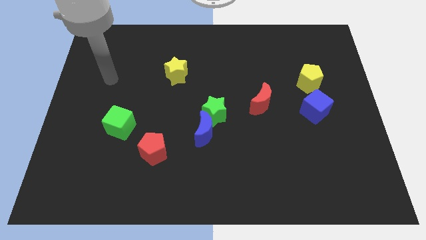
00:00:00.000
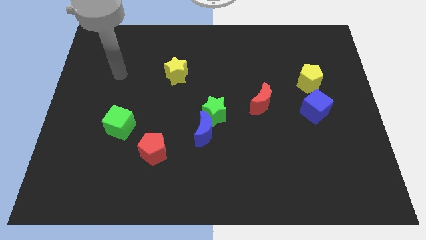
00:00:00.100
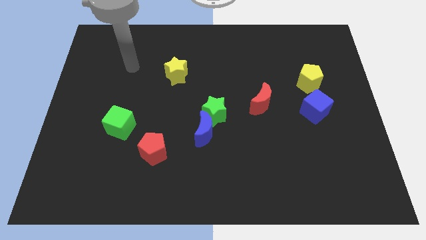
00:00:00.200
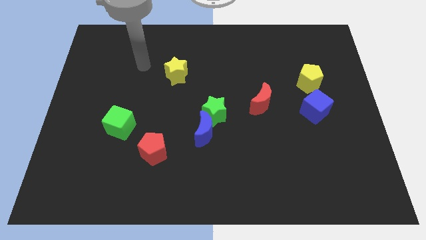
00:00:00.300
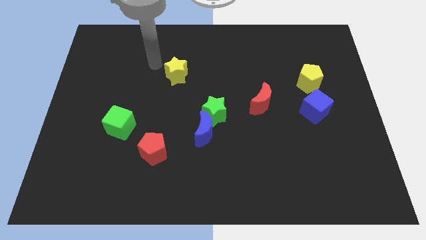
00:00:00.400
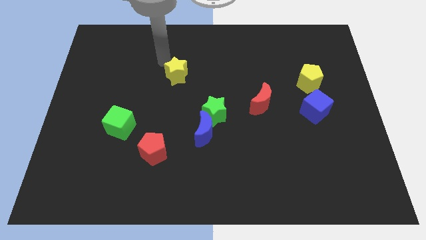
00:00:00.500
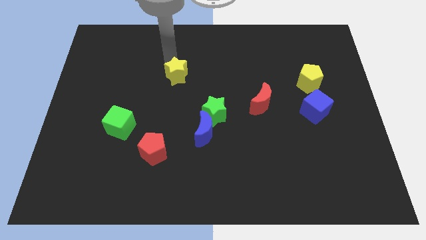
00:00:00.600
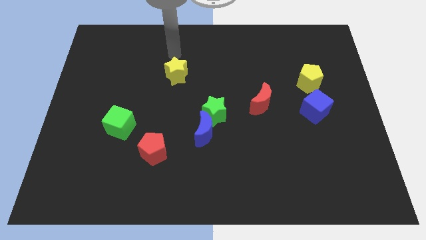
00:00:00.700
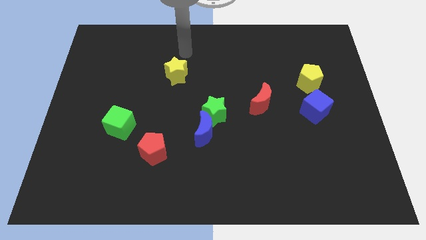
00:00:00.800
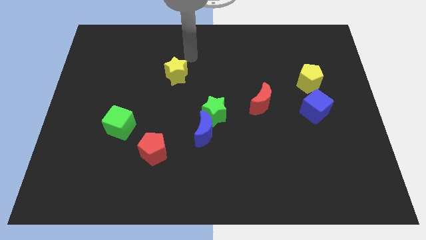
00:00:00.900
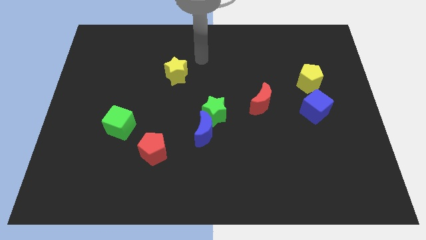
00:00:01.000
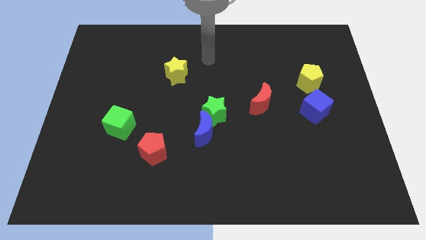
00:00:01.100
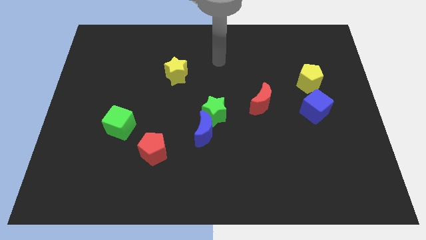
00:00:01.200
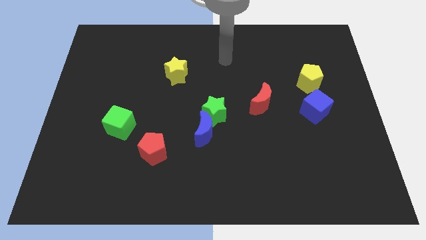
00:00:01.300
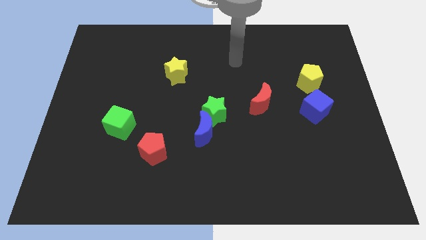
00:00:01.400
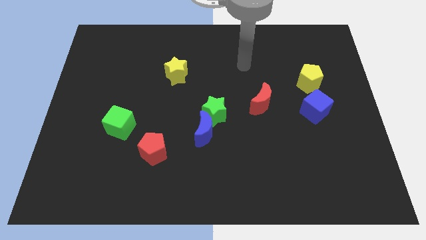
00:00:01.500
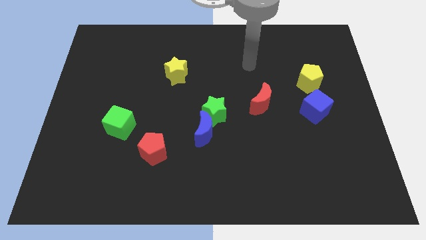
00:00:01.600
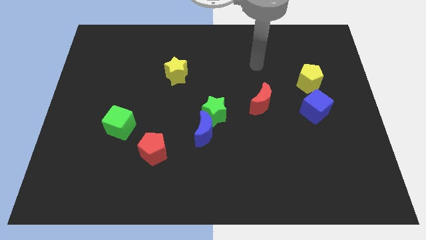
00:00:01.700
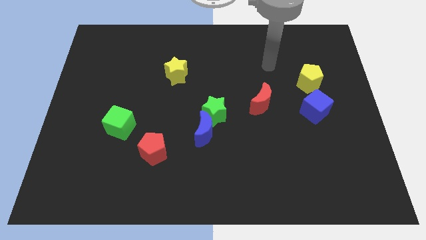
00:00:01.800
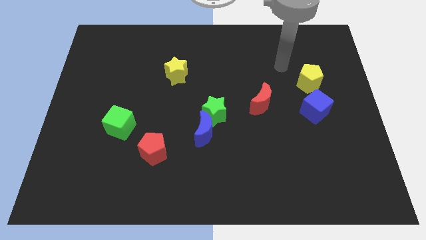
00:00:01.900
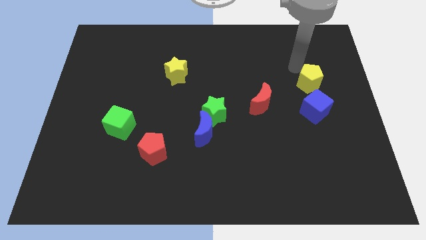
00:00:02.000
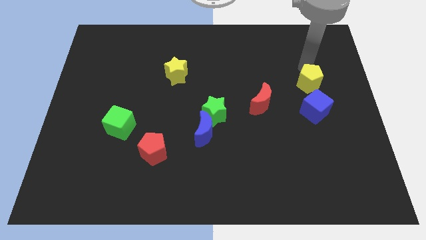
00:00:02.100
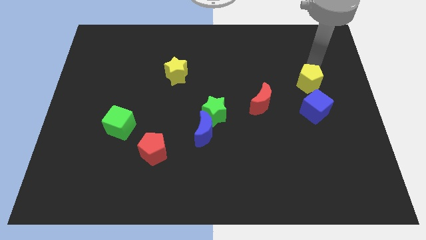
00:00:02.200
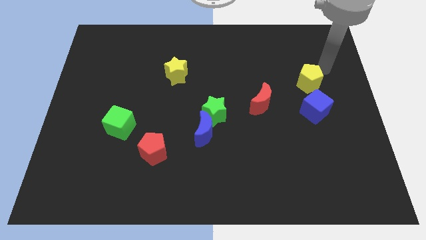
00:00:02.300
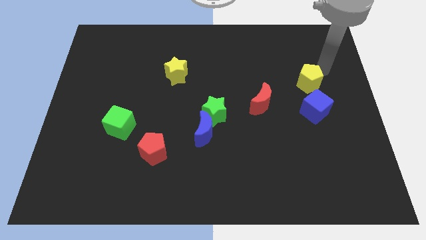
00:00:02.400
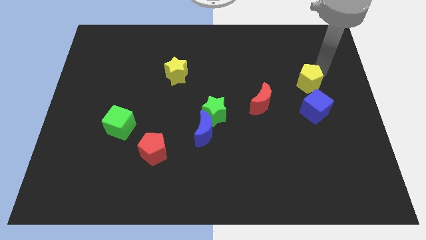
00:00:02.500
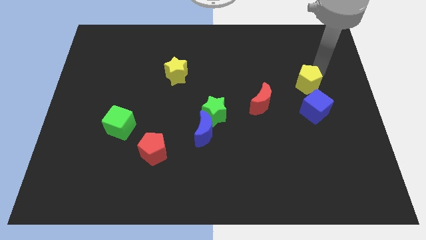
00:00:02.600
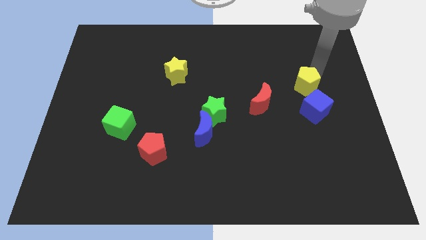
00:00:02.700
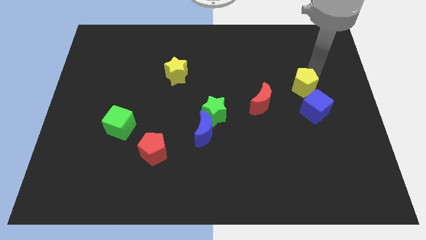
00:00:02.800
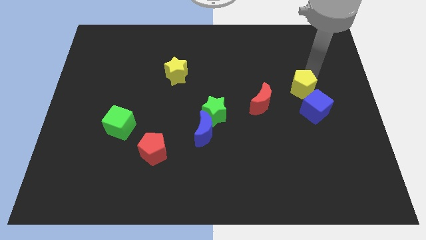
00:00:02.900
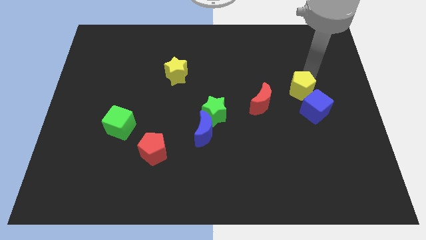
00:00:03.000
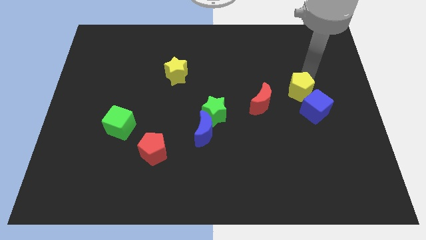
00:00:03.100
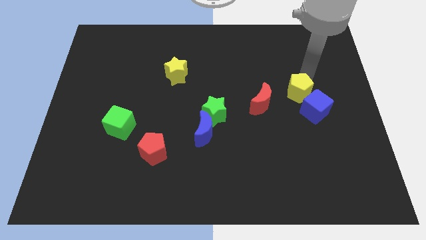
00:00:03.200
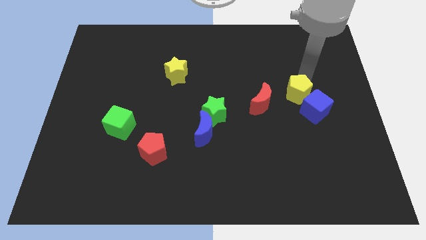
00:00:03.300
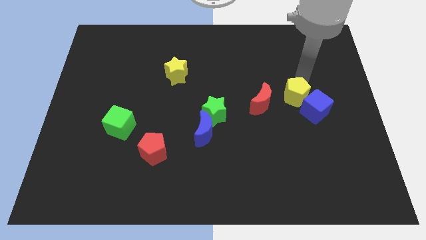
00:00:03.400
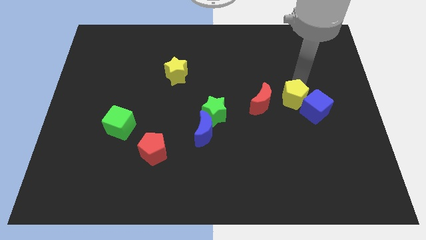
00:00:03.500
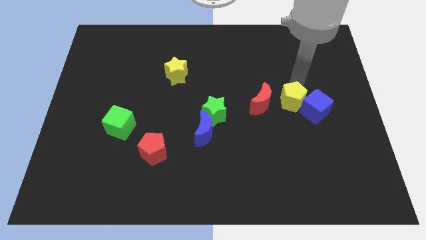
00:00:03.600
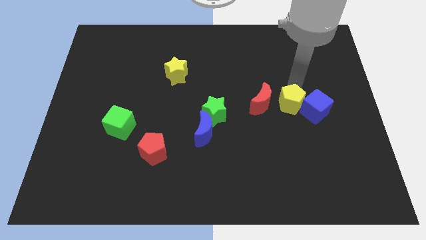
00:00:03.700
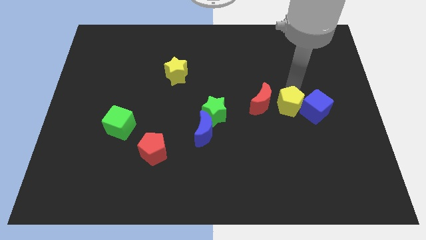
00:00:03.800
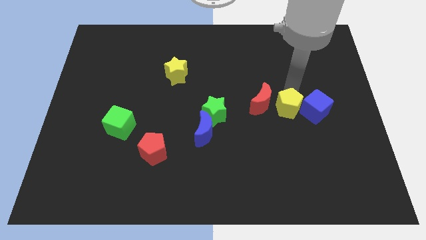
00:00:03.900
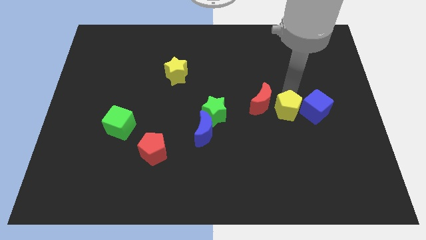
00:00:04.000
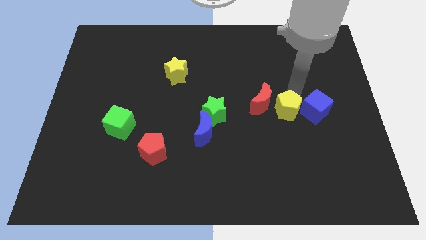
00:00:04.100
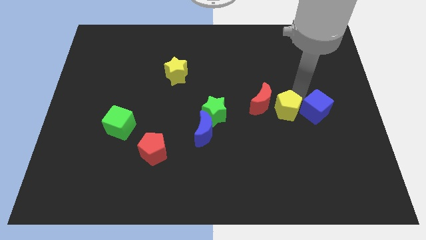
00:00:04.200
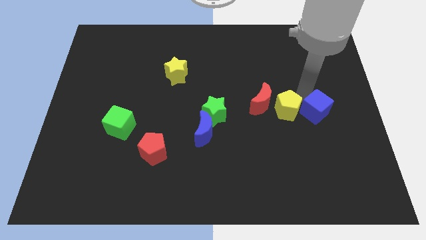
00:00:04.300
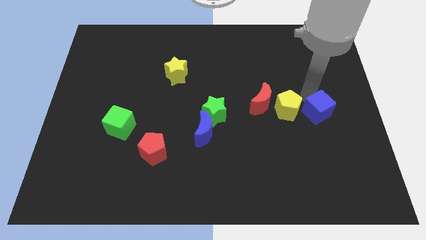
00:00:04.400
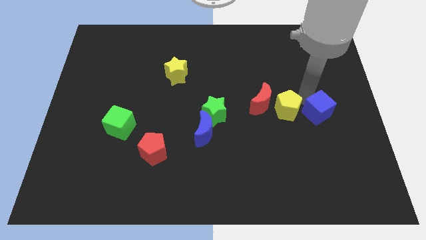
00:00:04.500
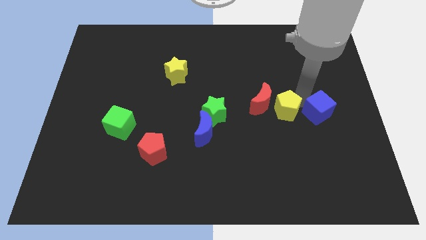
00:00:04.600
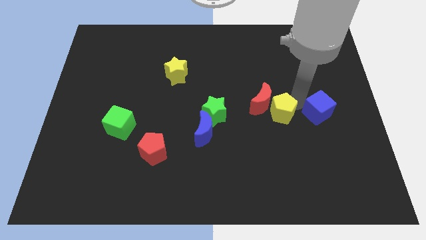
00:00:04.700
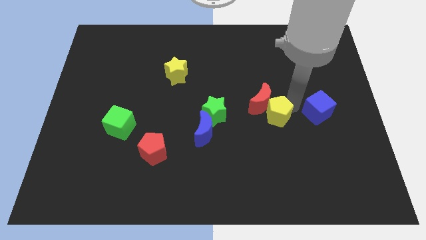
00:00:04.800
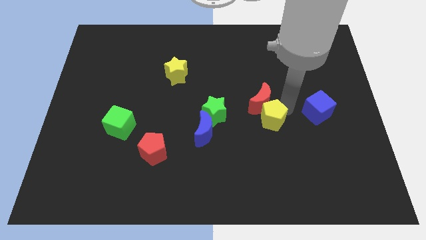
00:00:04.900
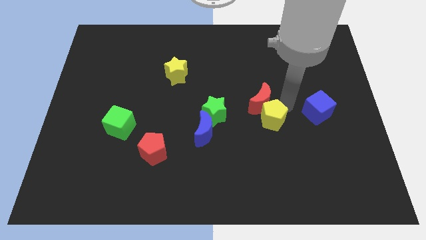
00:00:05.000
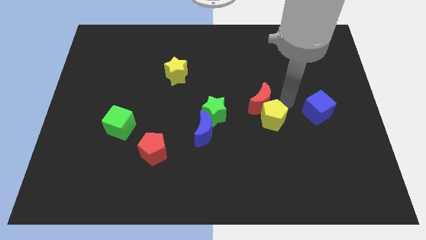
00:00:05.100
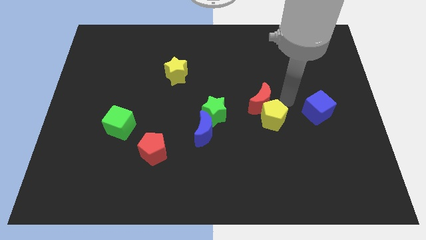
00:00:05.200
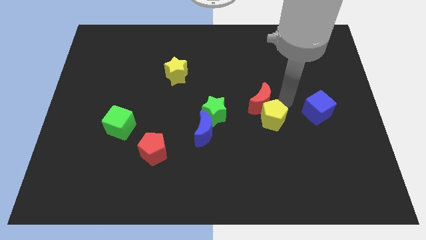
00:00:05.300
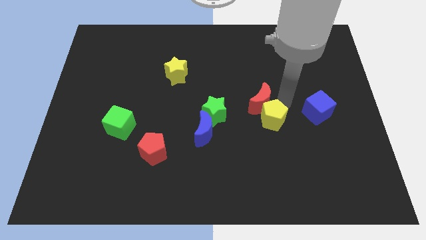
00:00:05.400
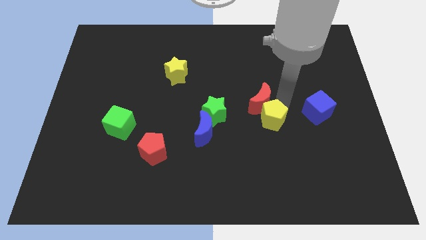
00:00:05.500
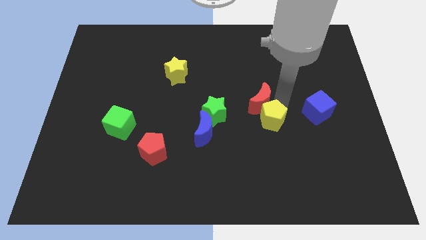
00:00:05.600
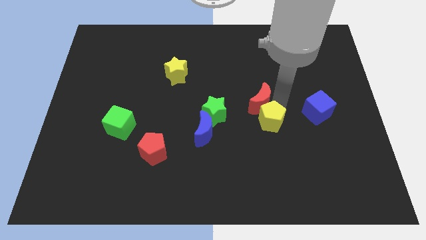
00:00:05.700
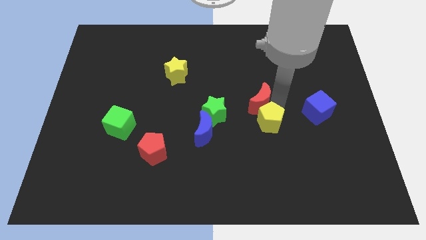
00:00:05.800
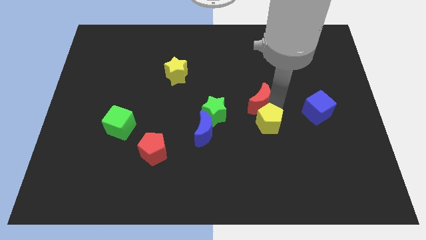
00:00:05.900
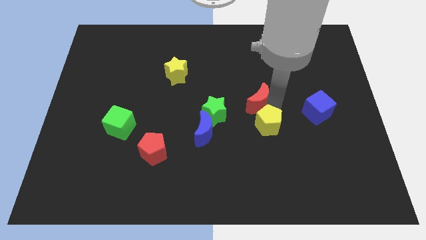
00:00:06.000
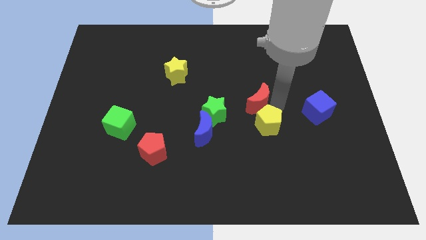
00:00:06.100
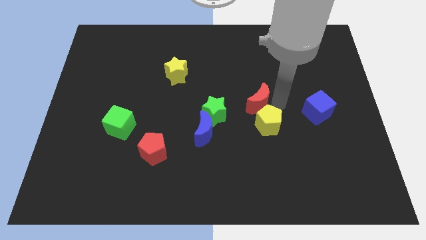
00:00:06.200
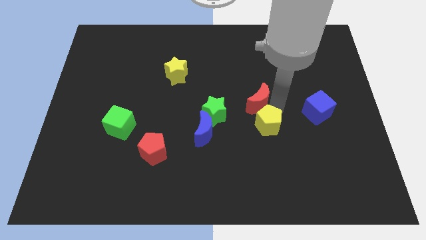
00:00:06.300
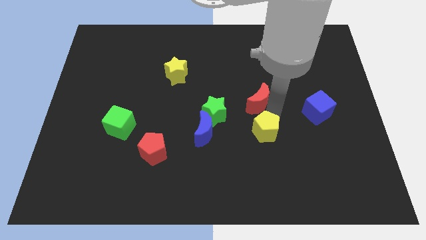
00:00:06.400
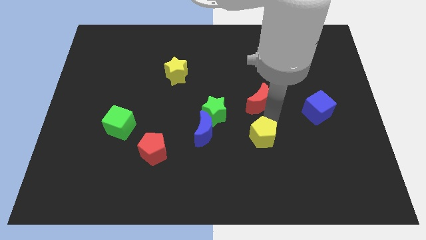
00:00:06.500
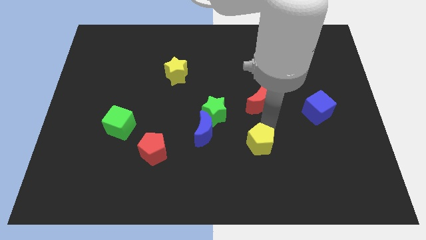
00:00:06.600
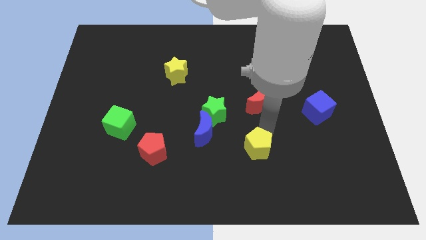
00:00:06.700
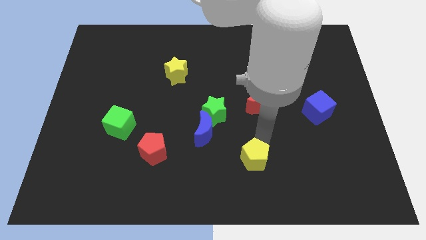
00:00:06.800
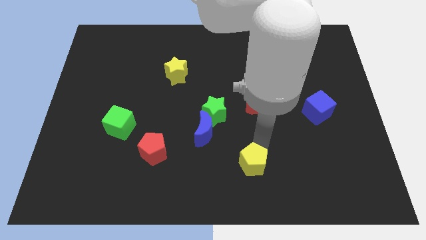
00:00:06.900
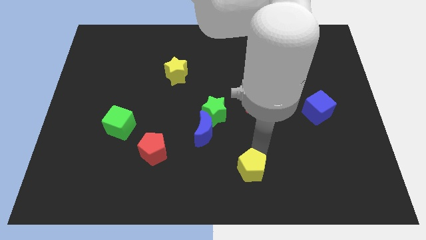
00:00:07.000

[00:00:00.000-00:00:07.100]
slide the yellow pentagon to the bottom side
